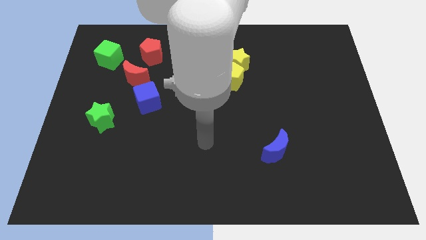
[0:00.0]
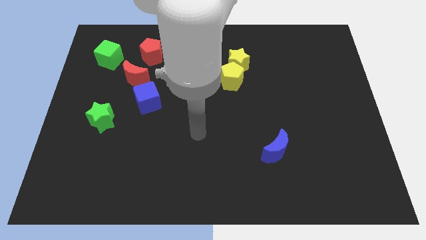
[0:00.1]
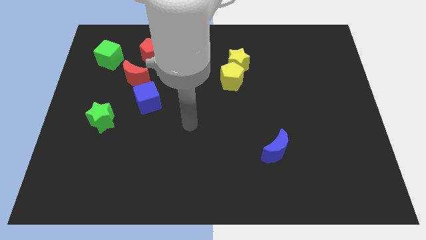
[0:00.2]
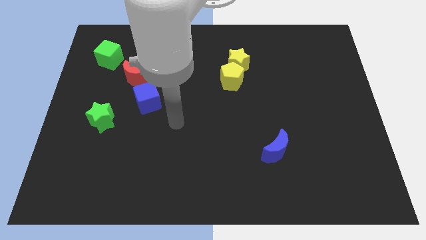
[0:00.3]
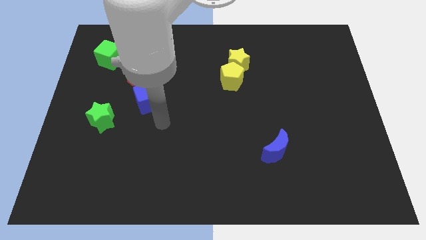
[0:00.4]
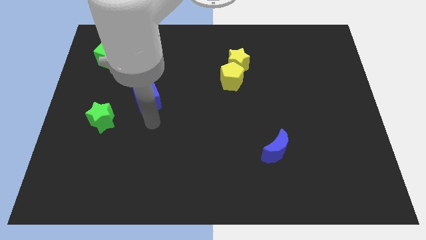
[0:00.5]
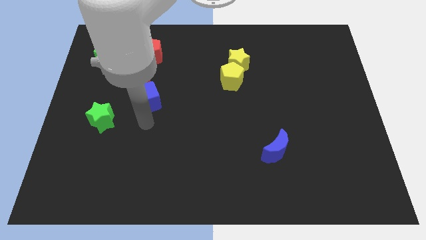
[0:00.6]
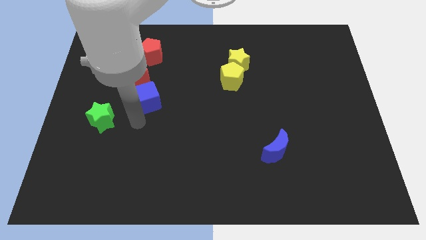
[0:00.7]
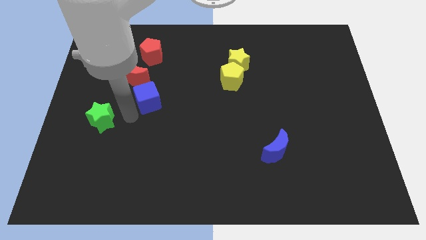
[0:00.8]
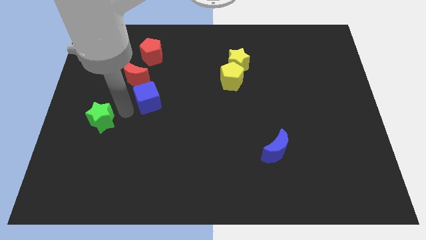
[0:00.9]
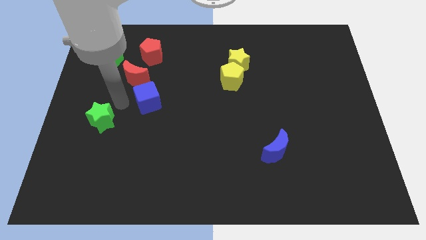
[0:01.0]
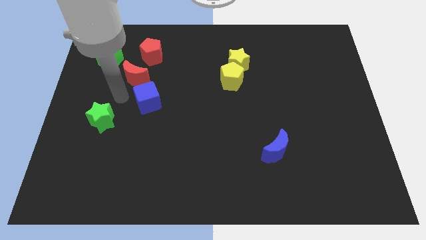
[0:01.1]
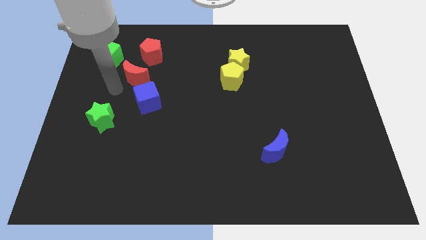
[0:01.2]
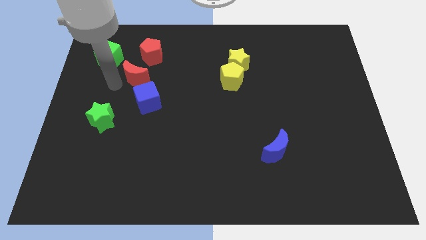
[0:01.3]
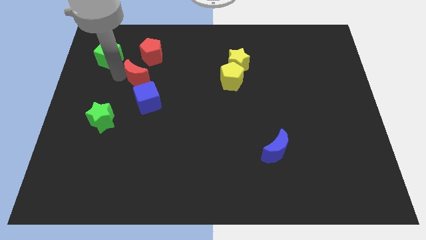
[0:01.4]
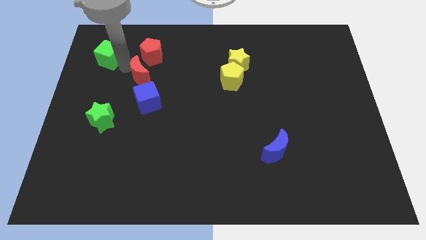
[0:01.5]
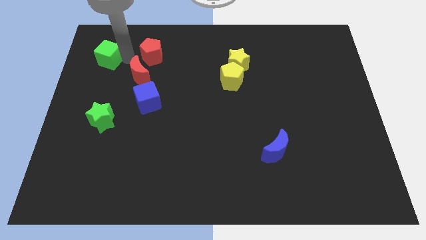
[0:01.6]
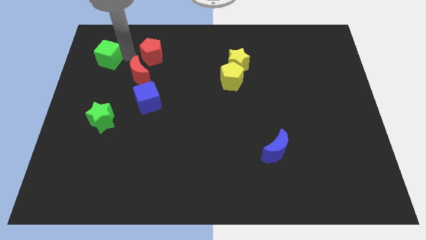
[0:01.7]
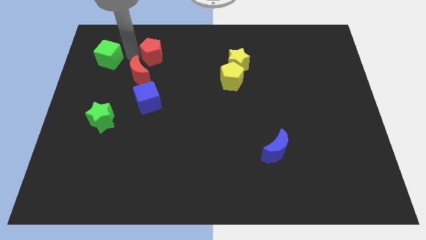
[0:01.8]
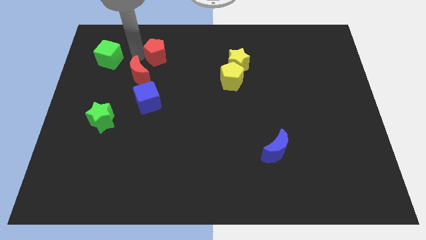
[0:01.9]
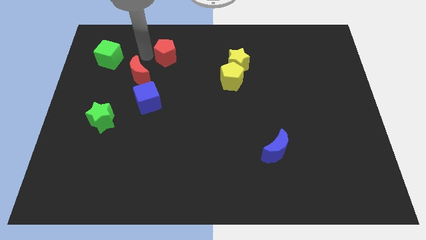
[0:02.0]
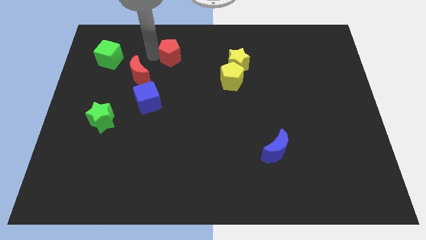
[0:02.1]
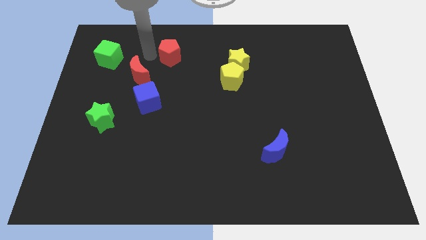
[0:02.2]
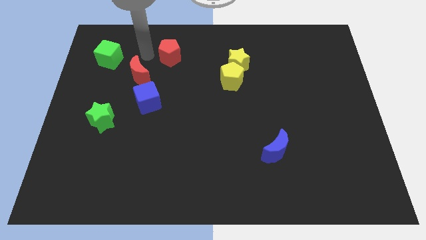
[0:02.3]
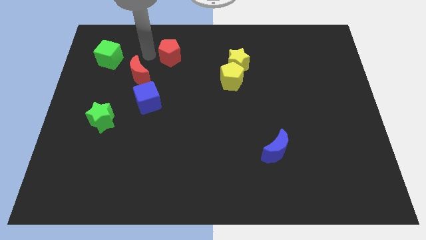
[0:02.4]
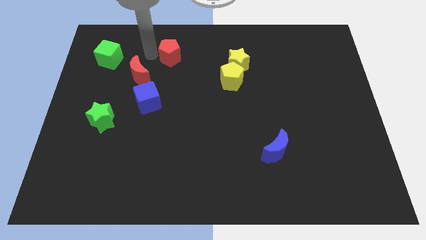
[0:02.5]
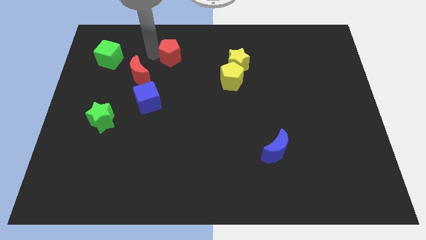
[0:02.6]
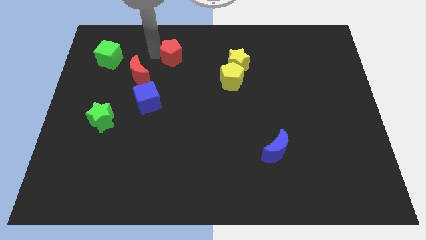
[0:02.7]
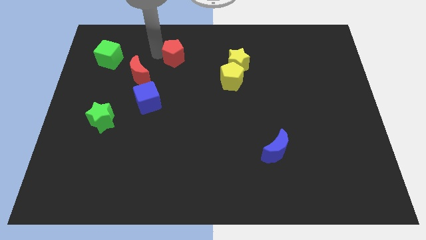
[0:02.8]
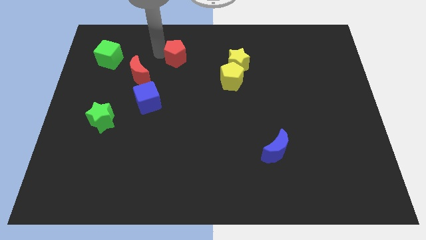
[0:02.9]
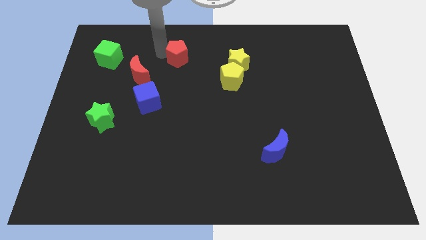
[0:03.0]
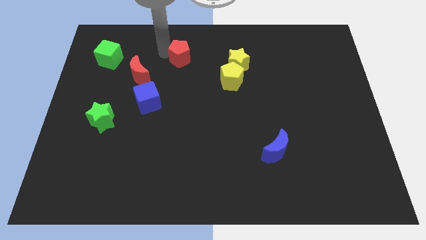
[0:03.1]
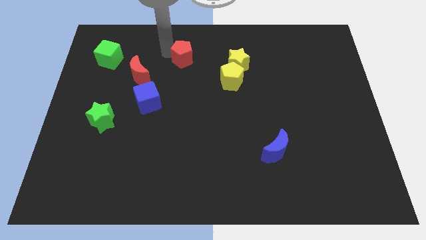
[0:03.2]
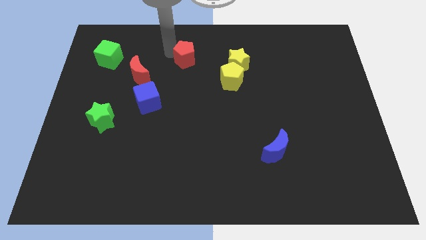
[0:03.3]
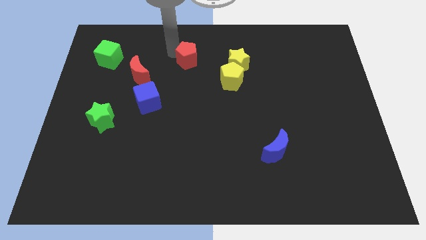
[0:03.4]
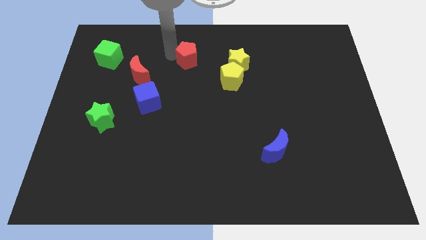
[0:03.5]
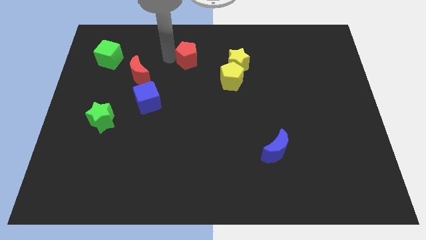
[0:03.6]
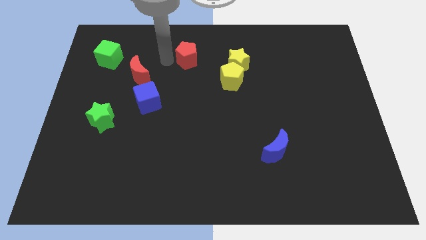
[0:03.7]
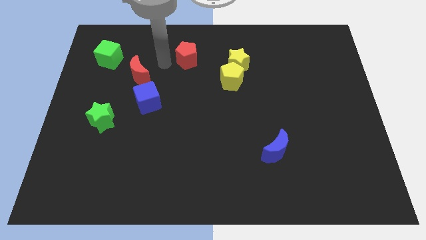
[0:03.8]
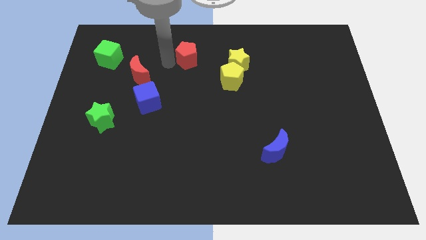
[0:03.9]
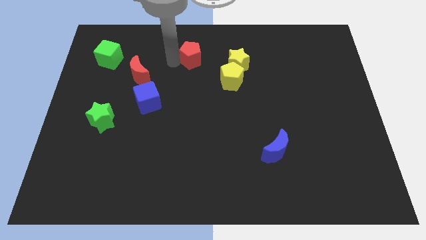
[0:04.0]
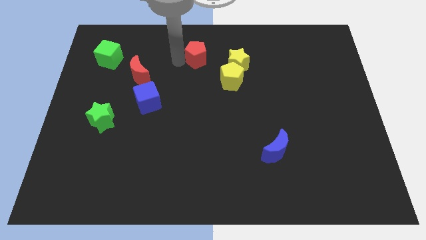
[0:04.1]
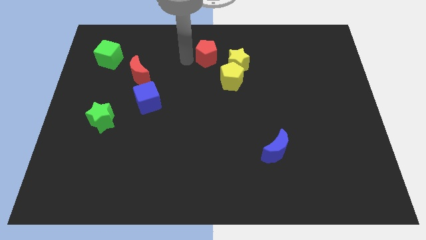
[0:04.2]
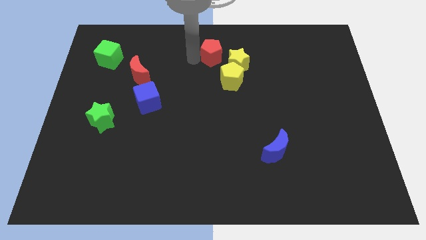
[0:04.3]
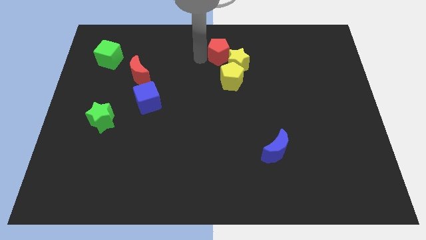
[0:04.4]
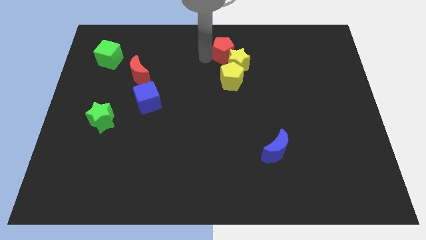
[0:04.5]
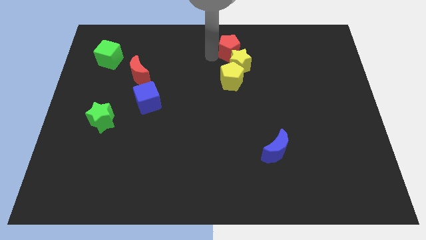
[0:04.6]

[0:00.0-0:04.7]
slide the red pentagon to the right

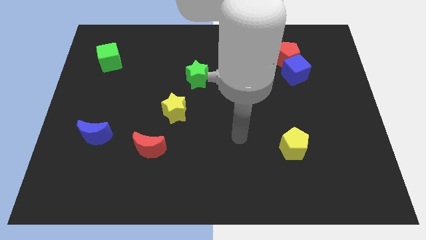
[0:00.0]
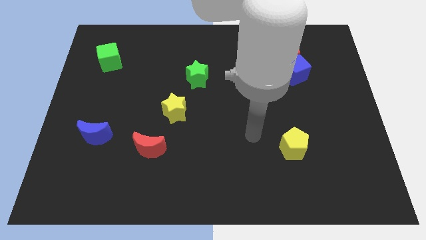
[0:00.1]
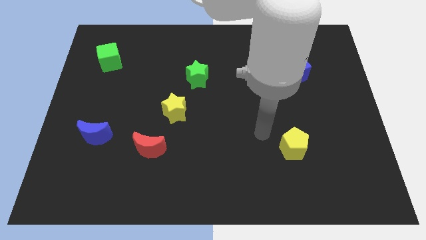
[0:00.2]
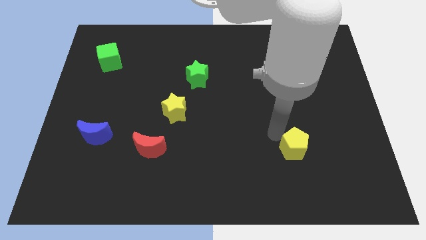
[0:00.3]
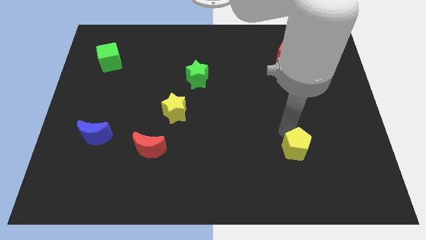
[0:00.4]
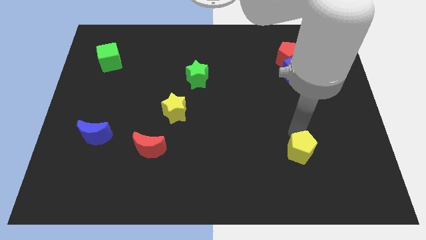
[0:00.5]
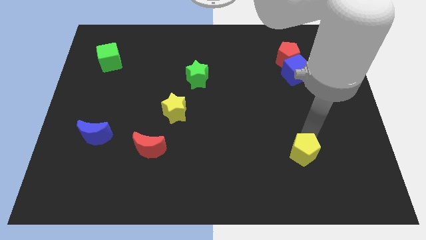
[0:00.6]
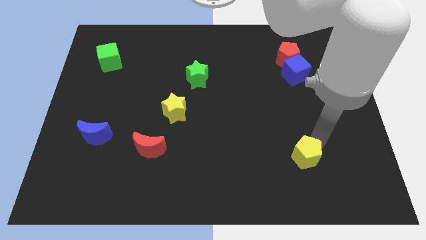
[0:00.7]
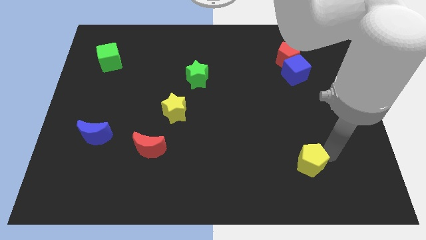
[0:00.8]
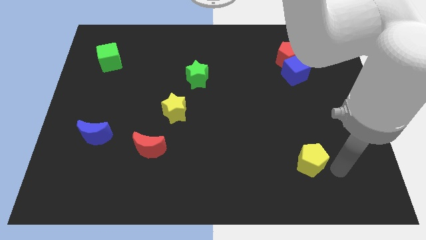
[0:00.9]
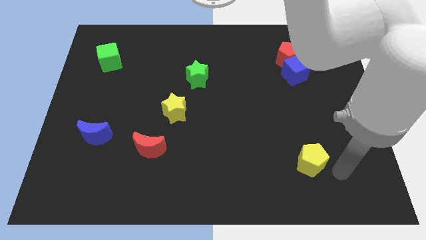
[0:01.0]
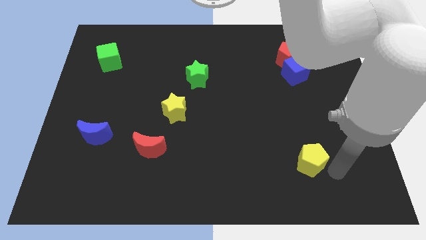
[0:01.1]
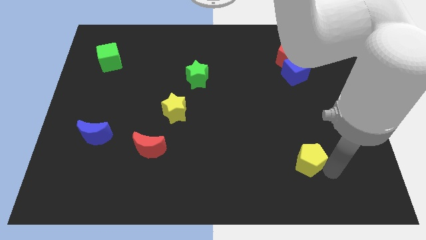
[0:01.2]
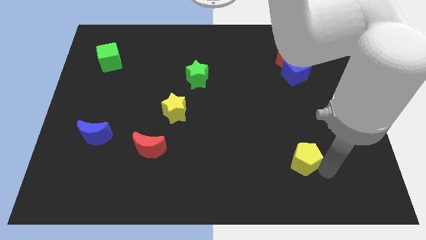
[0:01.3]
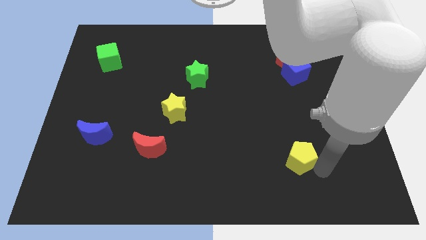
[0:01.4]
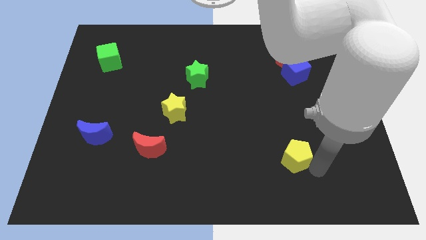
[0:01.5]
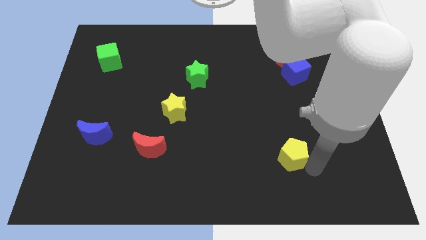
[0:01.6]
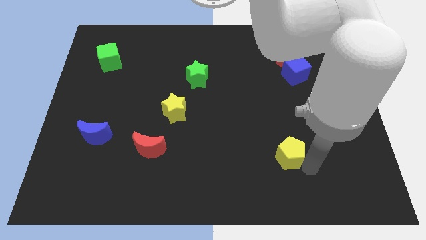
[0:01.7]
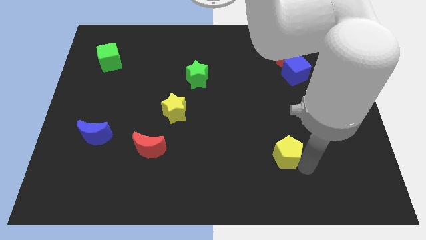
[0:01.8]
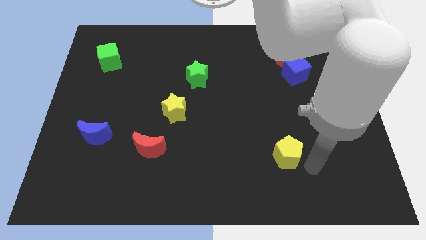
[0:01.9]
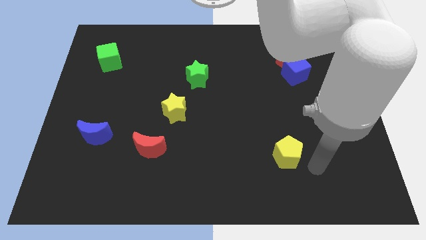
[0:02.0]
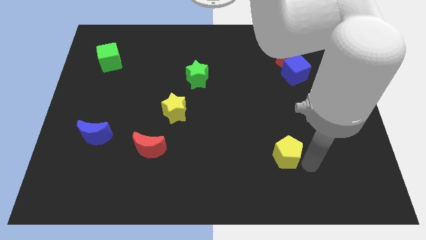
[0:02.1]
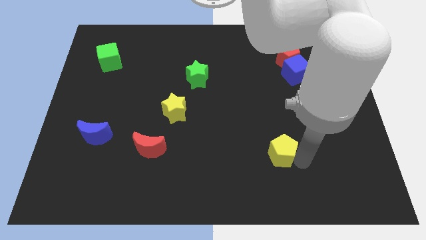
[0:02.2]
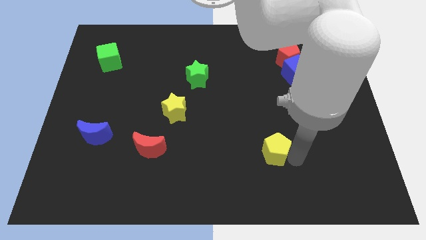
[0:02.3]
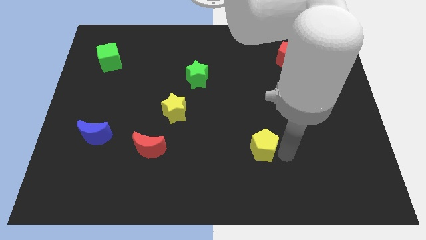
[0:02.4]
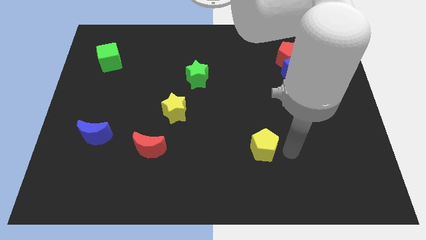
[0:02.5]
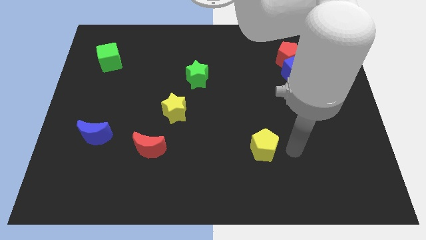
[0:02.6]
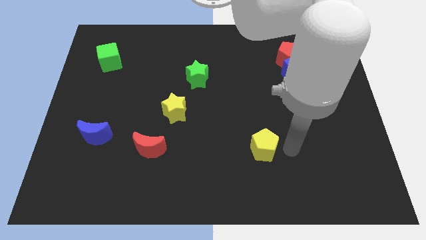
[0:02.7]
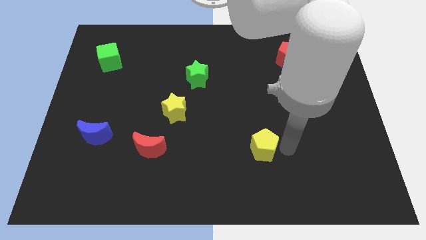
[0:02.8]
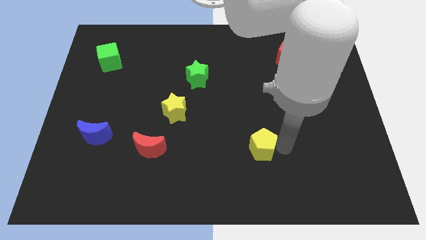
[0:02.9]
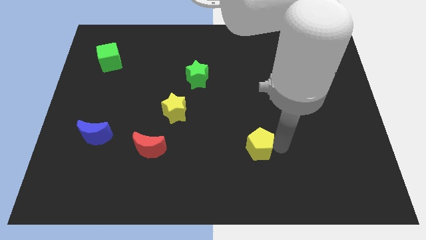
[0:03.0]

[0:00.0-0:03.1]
slightly slide the yellow pentagon to the left

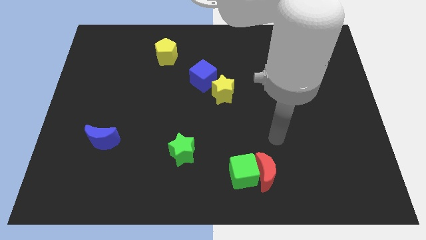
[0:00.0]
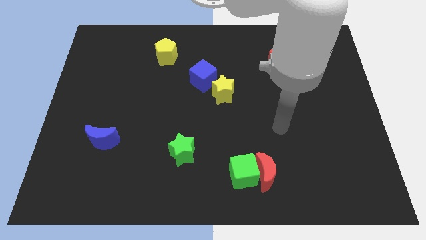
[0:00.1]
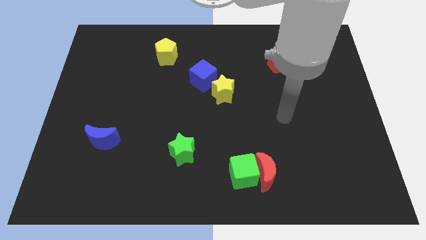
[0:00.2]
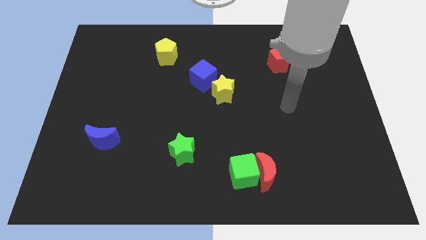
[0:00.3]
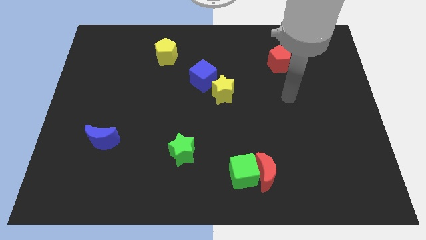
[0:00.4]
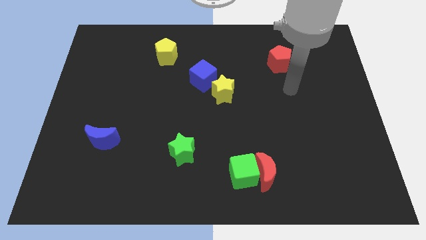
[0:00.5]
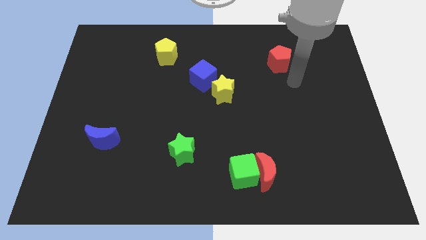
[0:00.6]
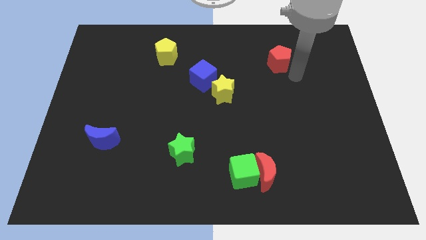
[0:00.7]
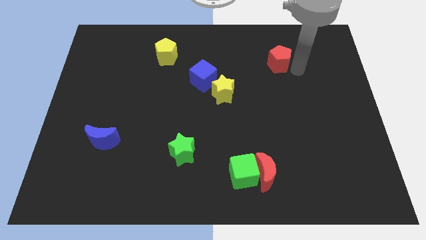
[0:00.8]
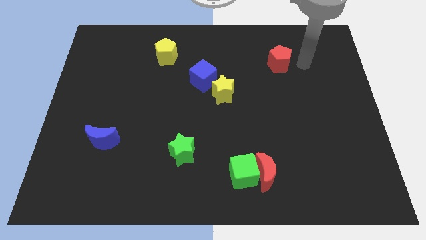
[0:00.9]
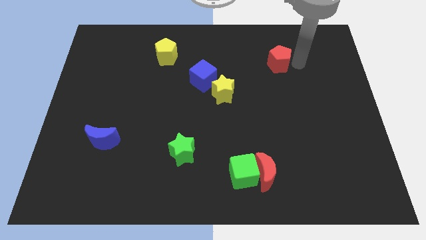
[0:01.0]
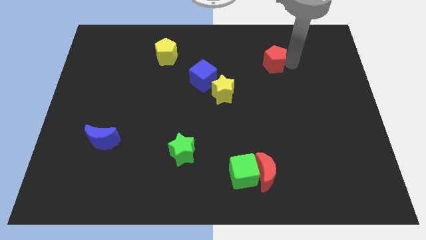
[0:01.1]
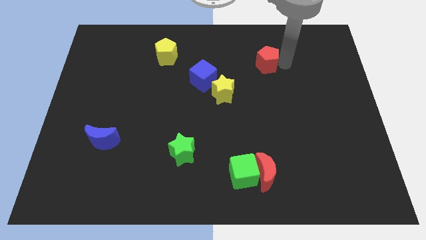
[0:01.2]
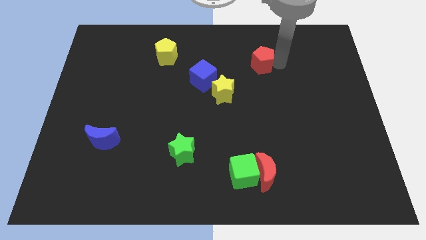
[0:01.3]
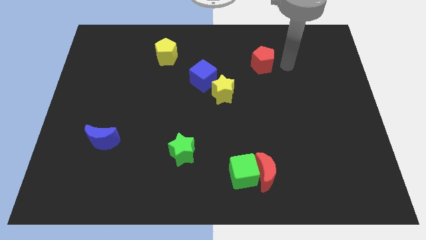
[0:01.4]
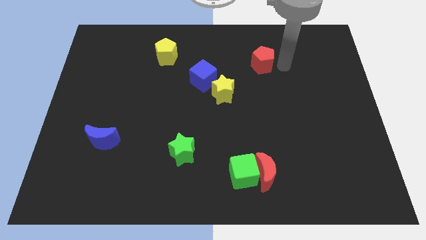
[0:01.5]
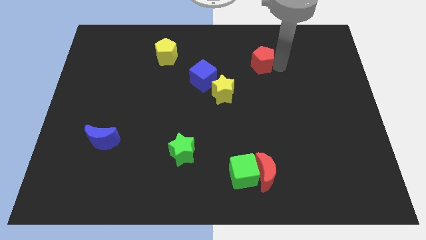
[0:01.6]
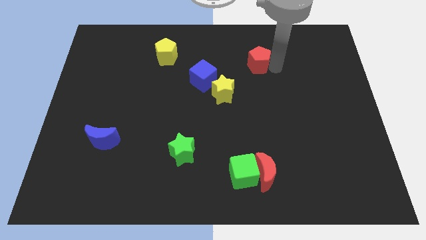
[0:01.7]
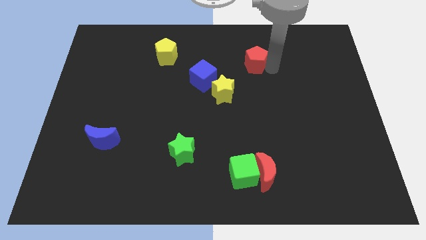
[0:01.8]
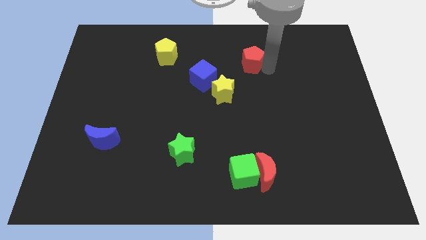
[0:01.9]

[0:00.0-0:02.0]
move the red pentagon left a little
